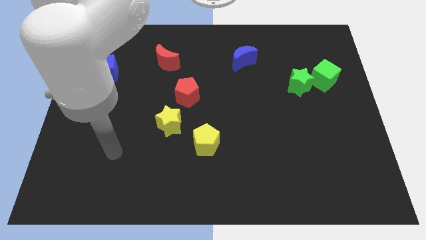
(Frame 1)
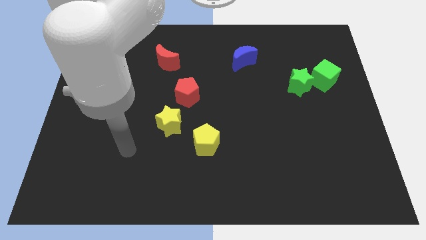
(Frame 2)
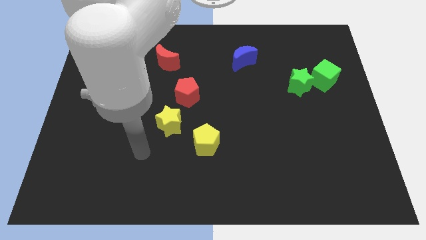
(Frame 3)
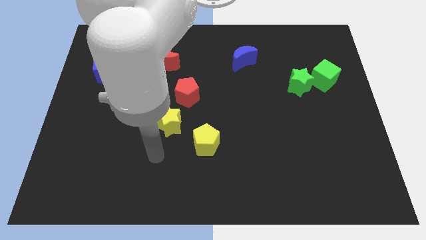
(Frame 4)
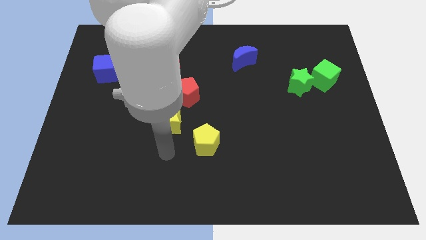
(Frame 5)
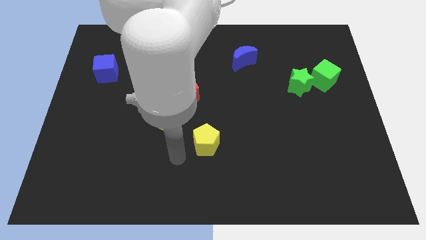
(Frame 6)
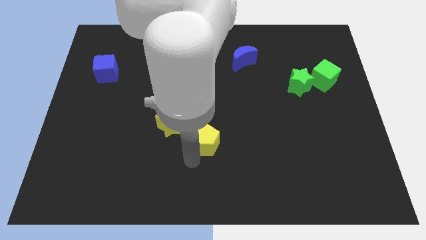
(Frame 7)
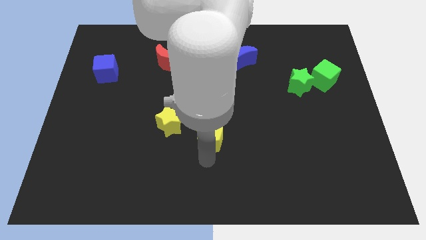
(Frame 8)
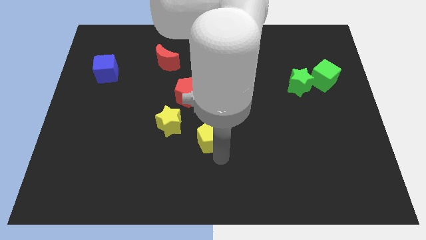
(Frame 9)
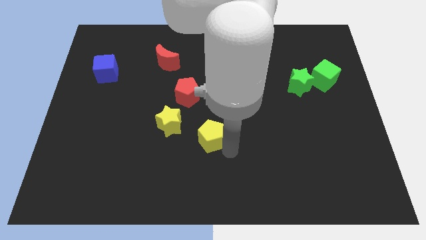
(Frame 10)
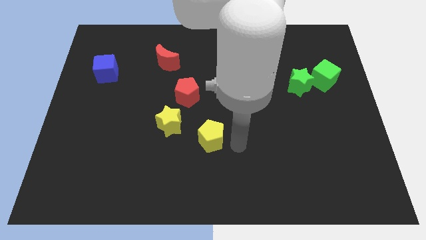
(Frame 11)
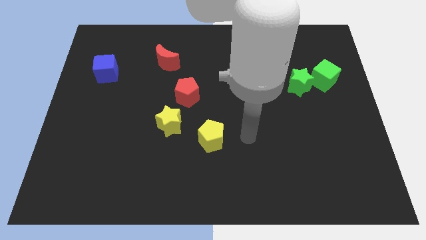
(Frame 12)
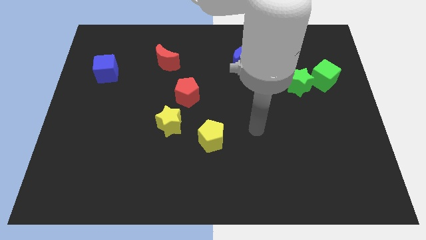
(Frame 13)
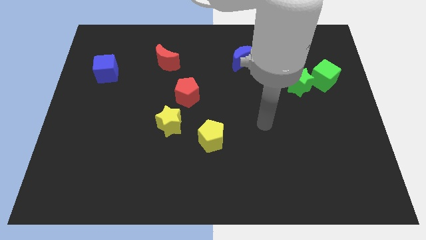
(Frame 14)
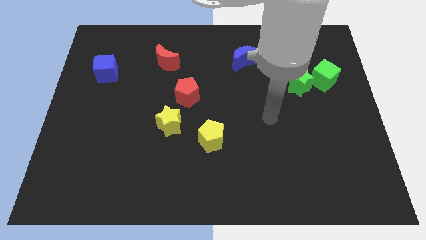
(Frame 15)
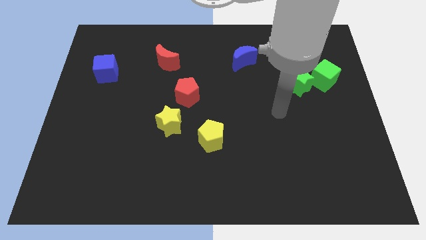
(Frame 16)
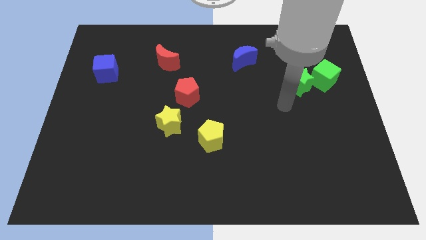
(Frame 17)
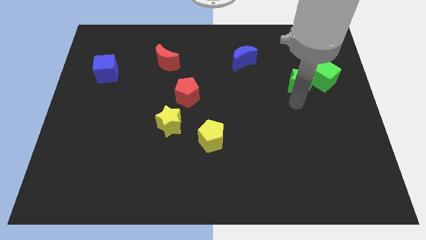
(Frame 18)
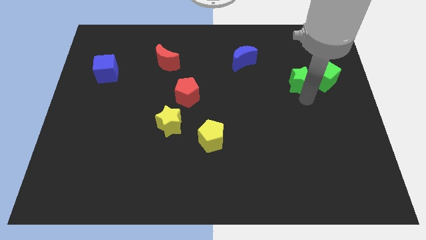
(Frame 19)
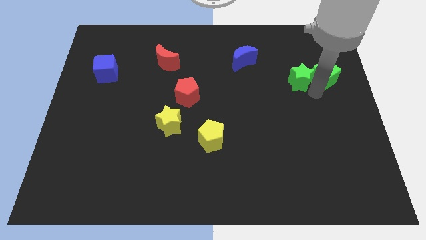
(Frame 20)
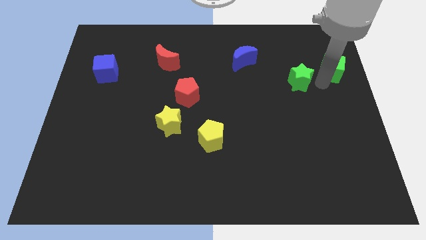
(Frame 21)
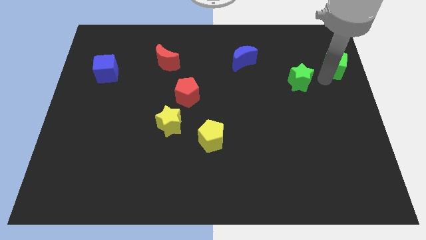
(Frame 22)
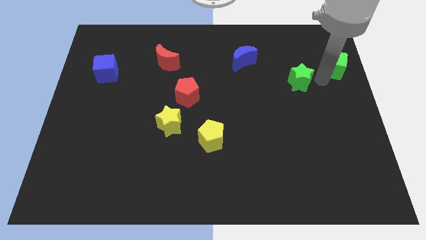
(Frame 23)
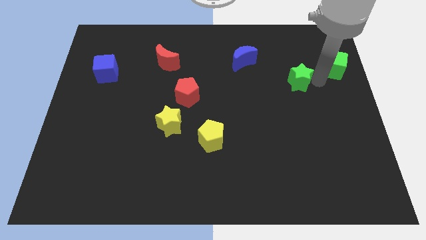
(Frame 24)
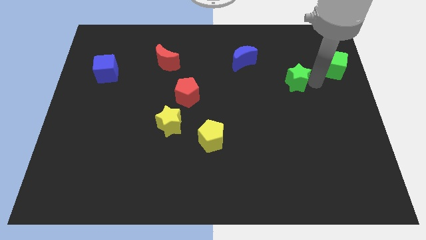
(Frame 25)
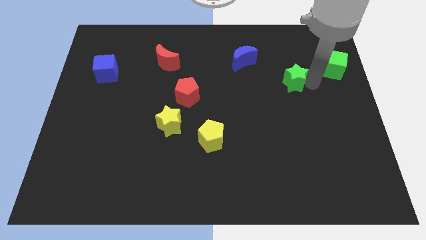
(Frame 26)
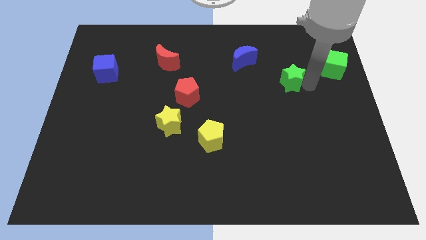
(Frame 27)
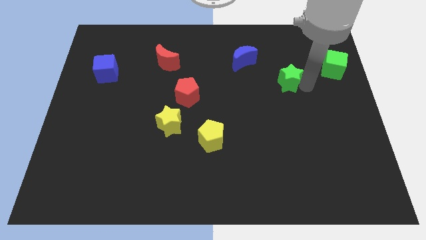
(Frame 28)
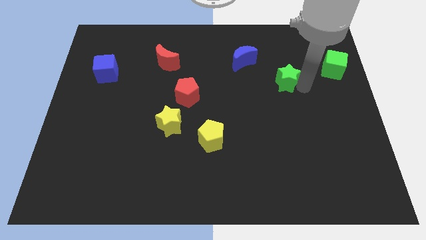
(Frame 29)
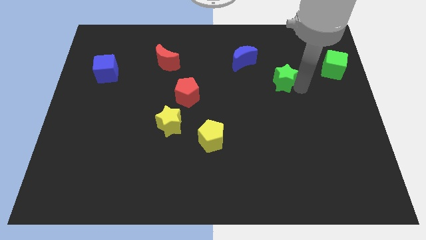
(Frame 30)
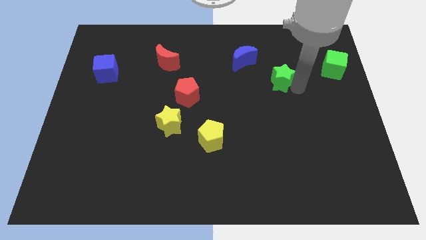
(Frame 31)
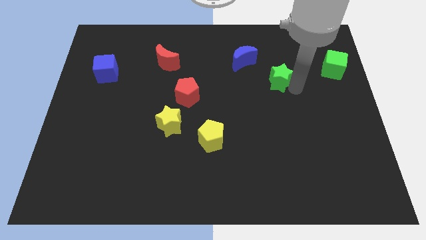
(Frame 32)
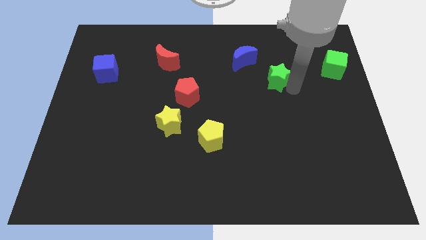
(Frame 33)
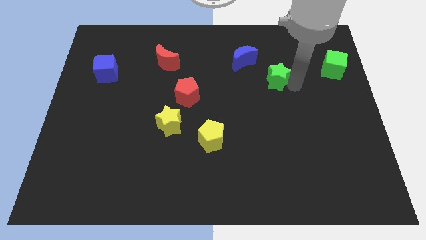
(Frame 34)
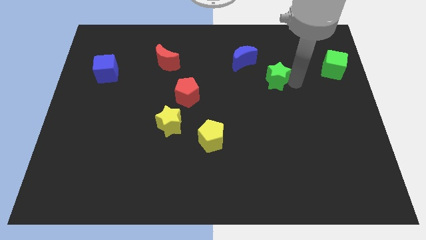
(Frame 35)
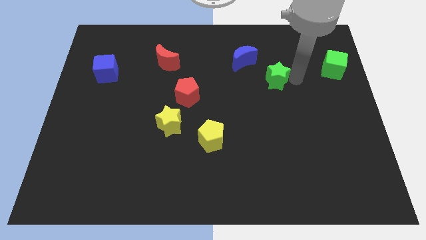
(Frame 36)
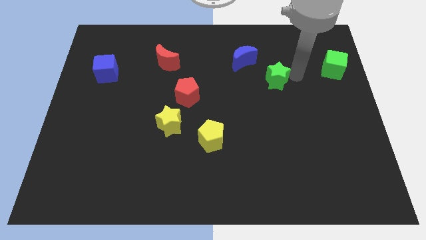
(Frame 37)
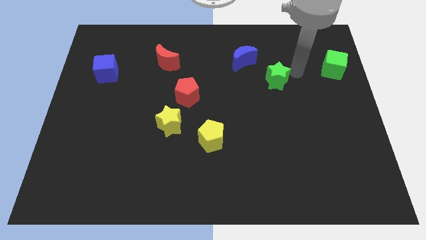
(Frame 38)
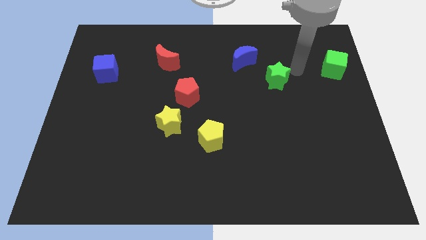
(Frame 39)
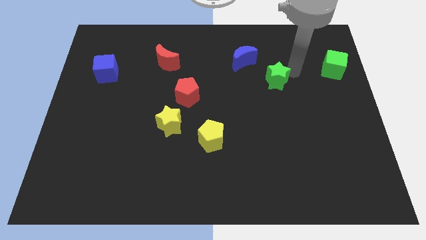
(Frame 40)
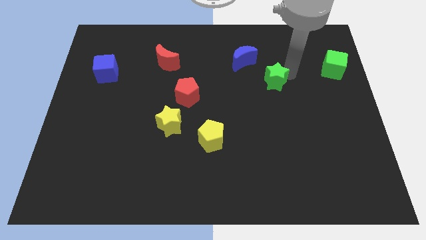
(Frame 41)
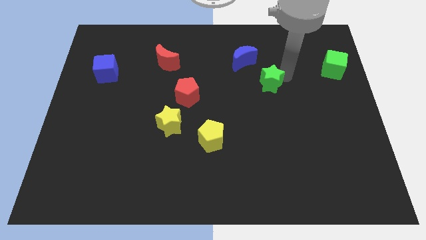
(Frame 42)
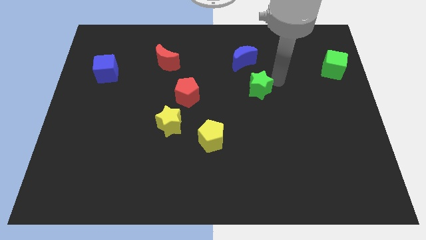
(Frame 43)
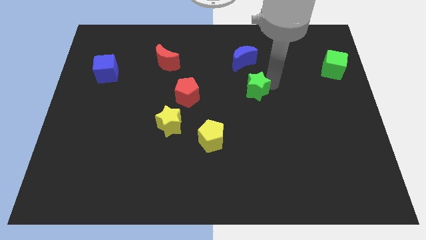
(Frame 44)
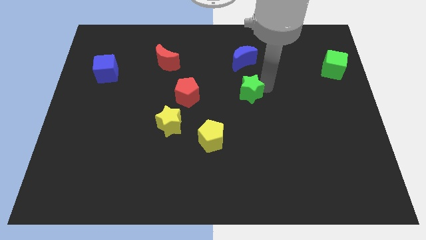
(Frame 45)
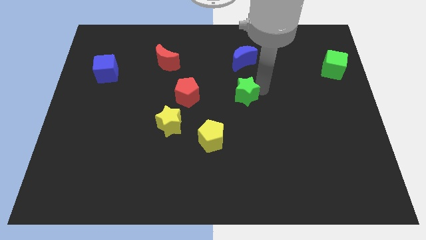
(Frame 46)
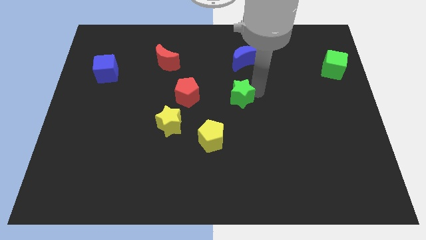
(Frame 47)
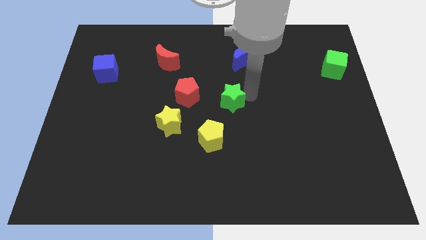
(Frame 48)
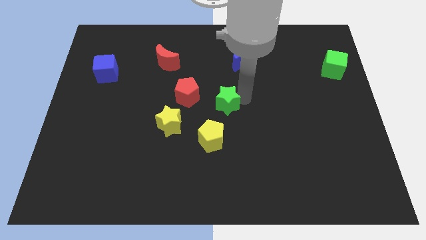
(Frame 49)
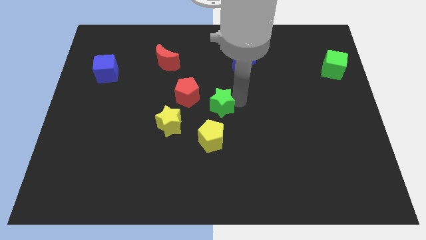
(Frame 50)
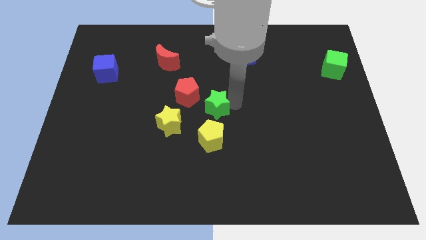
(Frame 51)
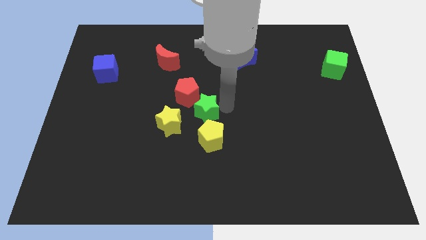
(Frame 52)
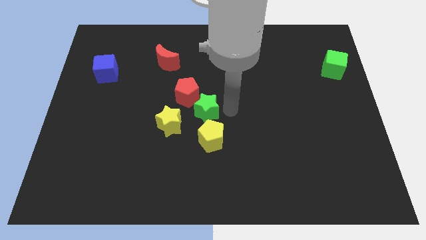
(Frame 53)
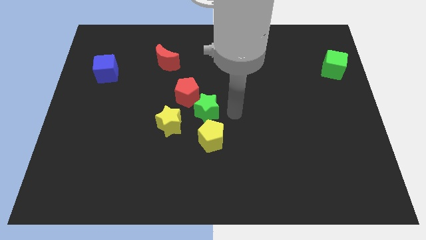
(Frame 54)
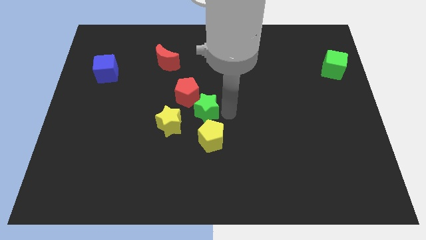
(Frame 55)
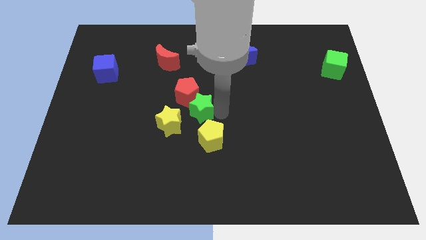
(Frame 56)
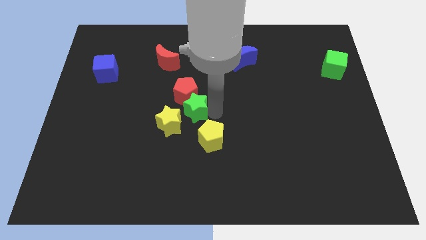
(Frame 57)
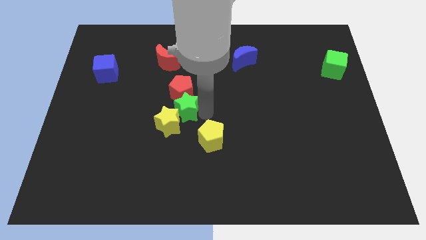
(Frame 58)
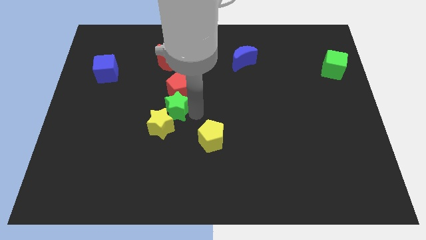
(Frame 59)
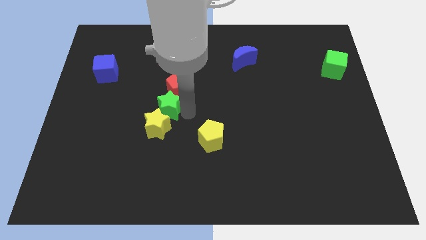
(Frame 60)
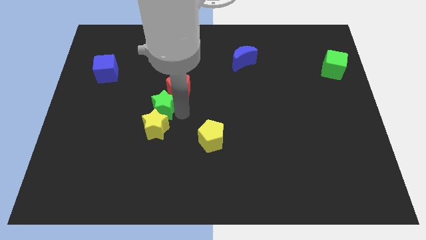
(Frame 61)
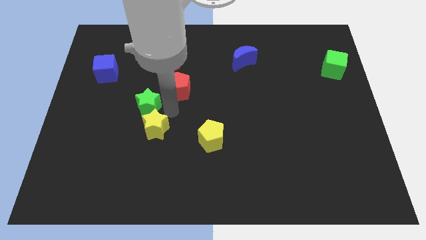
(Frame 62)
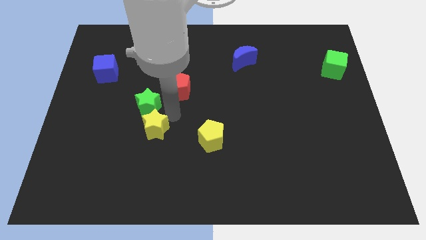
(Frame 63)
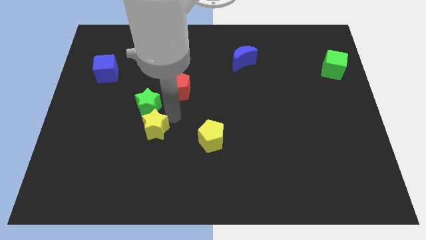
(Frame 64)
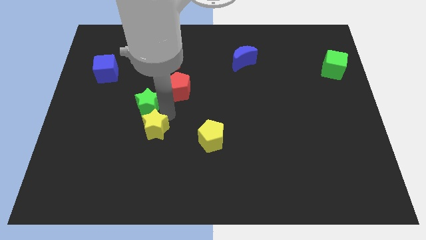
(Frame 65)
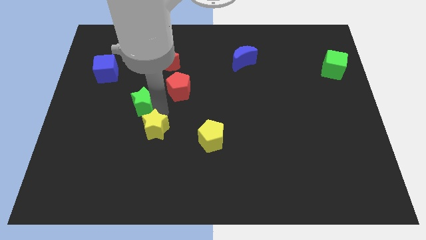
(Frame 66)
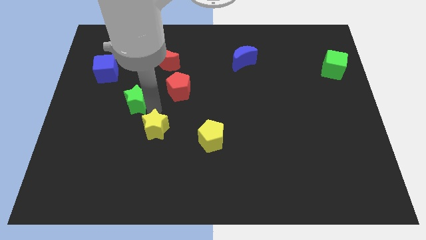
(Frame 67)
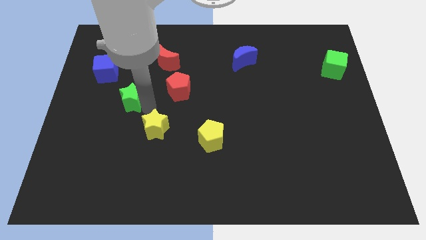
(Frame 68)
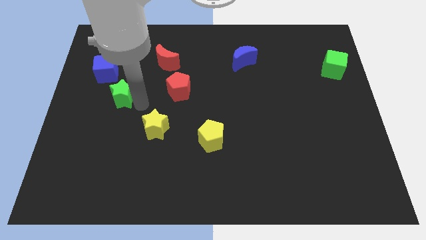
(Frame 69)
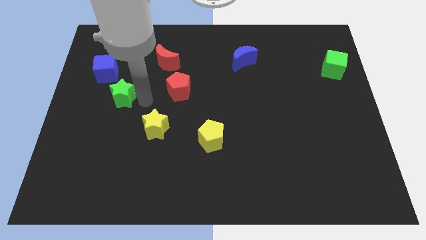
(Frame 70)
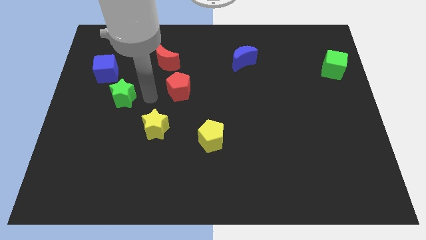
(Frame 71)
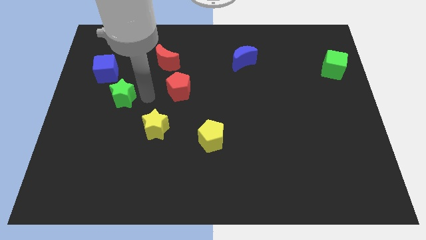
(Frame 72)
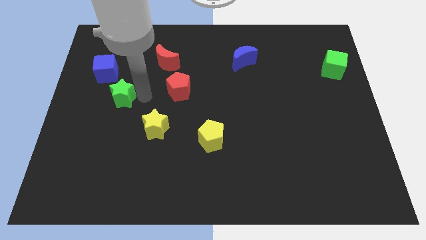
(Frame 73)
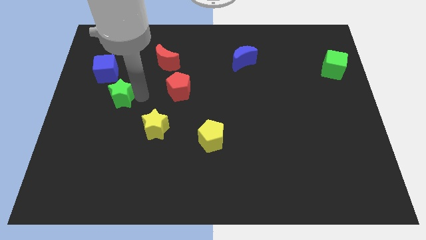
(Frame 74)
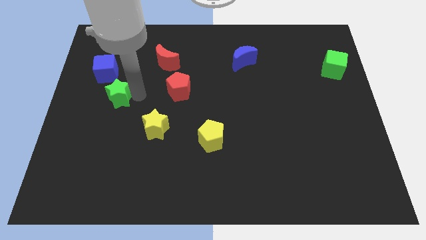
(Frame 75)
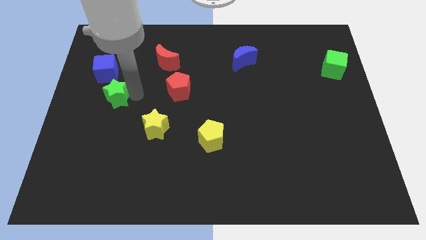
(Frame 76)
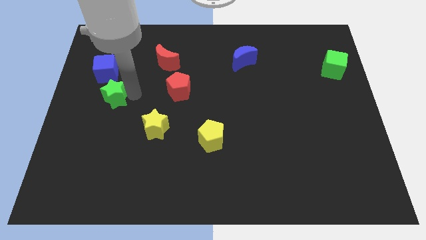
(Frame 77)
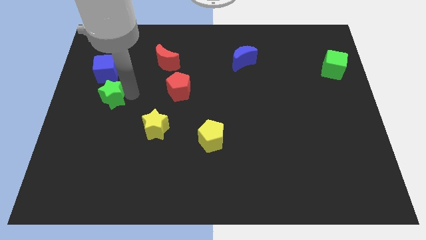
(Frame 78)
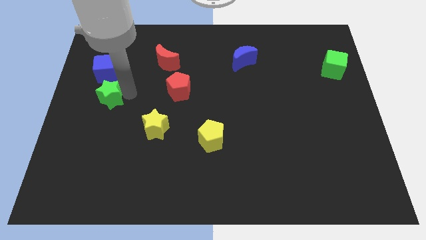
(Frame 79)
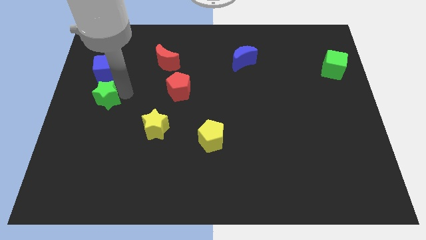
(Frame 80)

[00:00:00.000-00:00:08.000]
move the green star to the left side of the board
